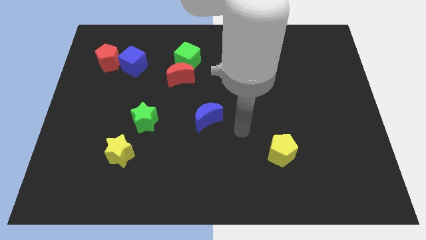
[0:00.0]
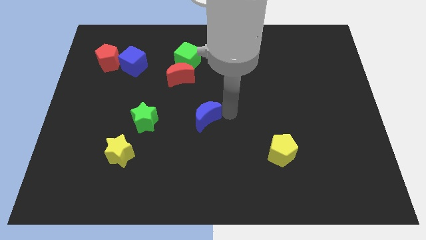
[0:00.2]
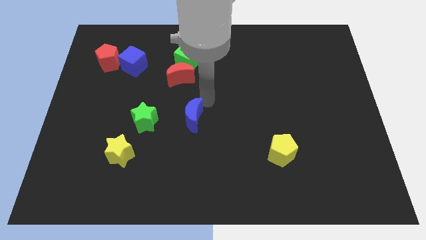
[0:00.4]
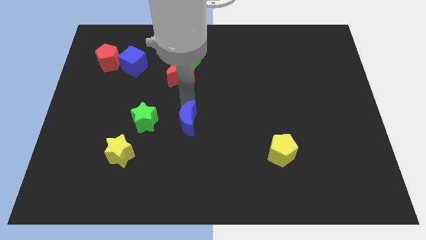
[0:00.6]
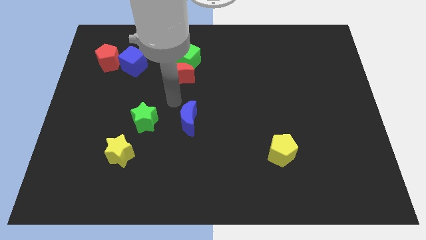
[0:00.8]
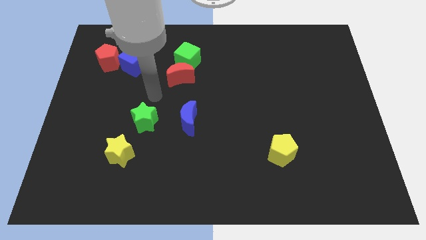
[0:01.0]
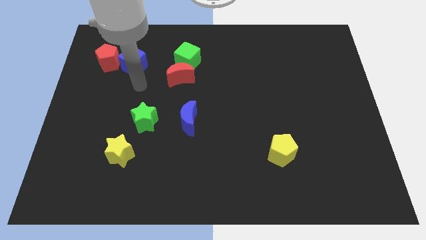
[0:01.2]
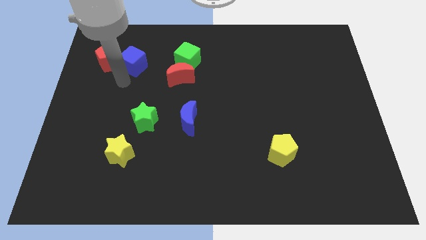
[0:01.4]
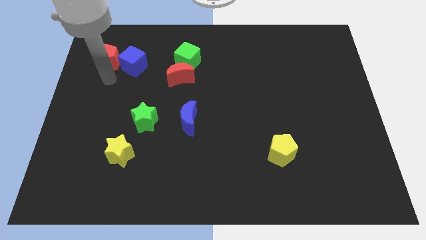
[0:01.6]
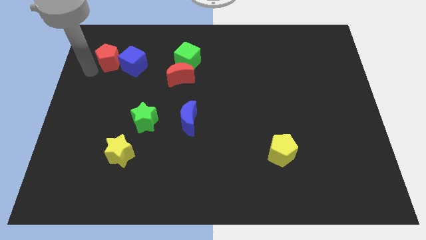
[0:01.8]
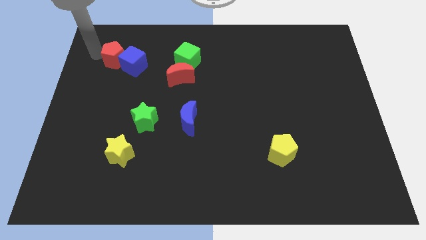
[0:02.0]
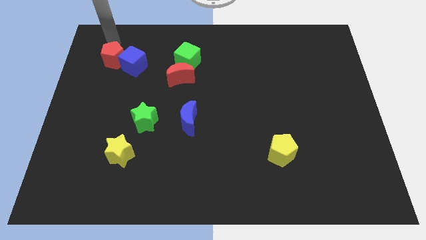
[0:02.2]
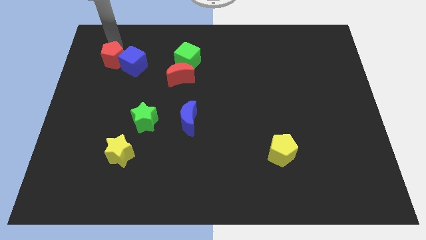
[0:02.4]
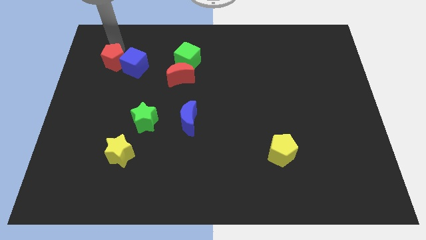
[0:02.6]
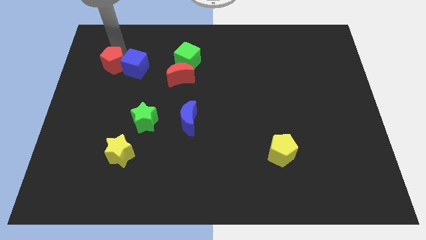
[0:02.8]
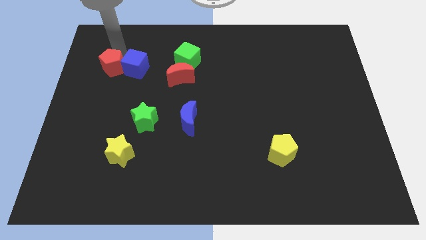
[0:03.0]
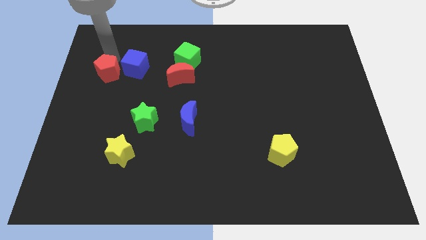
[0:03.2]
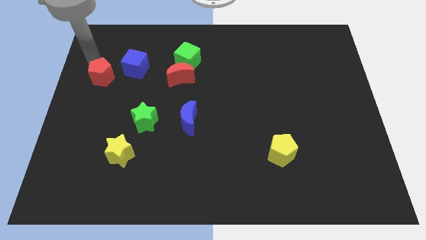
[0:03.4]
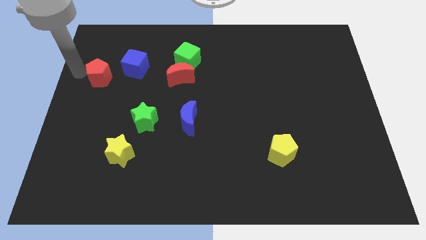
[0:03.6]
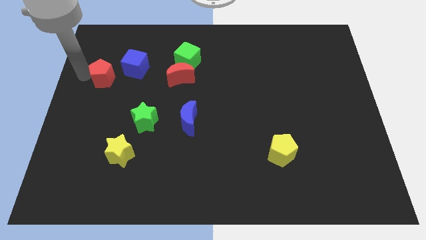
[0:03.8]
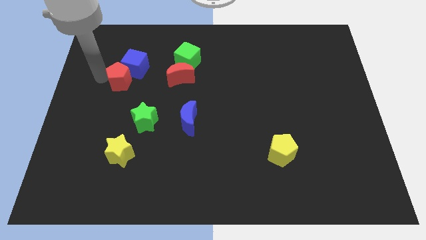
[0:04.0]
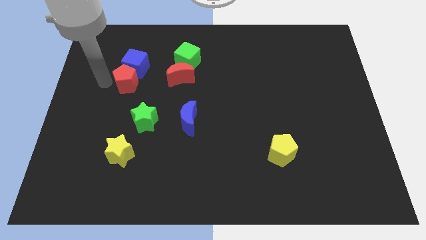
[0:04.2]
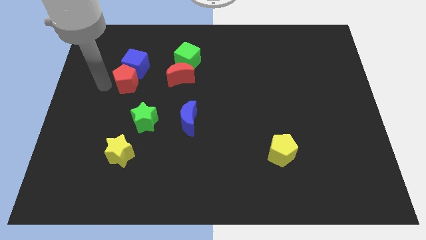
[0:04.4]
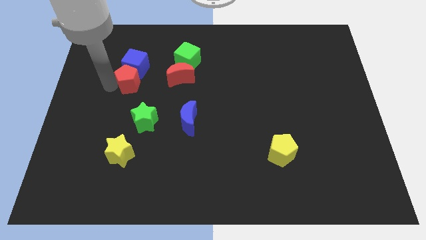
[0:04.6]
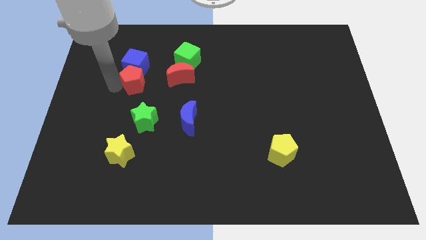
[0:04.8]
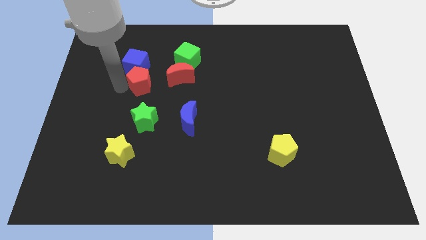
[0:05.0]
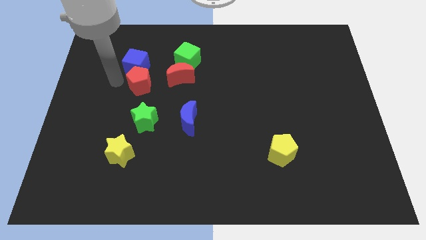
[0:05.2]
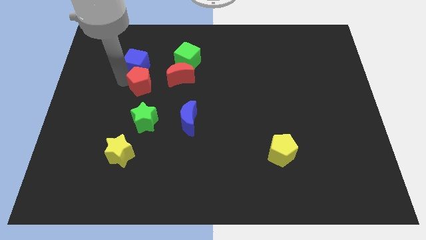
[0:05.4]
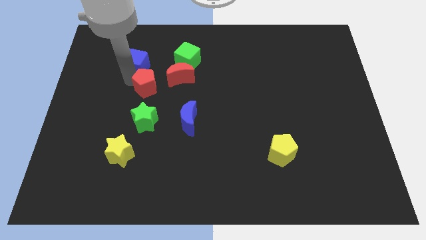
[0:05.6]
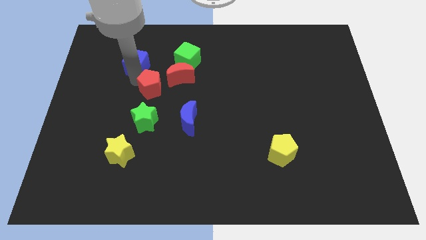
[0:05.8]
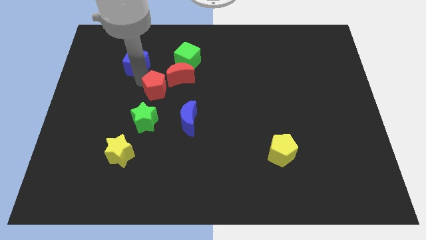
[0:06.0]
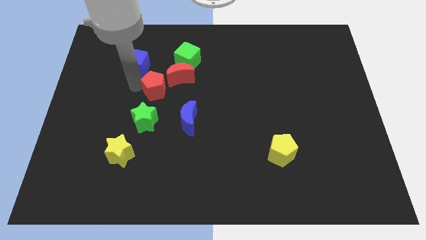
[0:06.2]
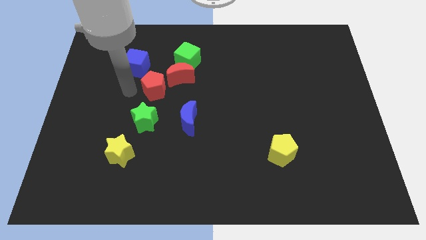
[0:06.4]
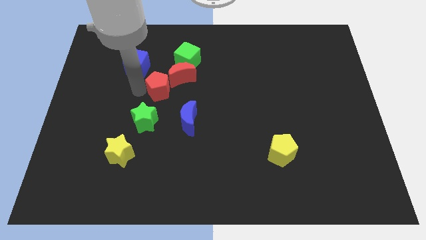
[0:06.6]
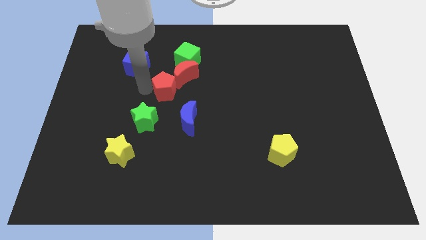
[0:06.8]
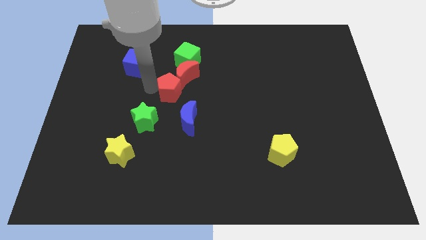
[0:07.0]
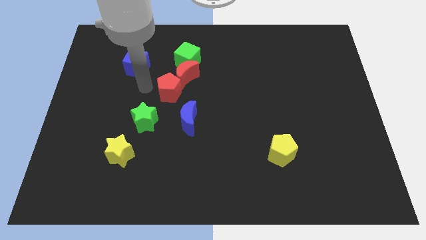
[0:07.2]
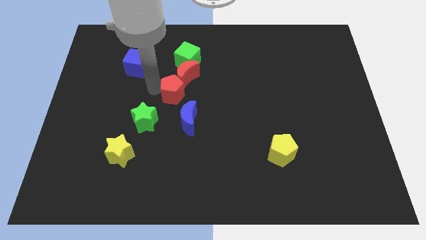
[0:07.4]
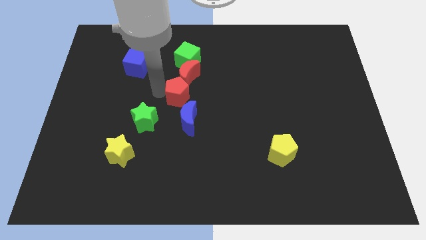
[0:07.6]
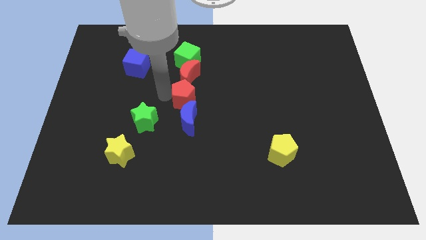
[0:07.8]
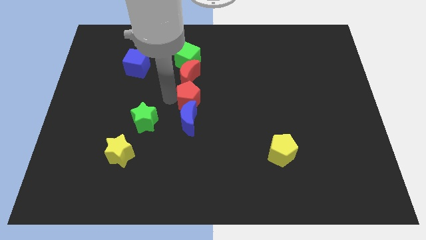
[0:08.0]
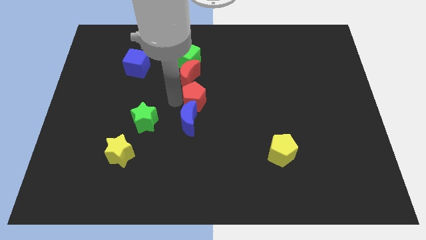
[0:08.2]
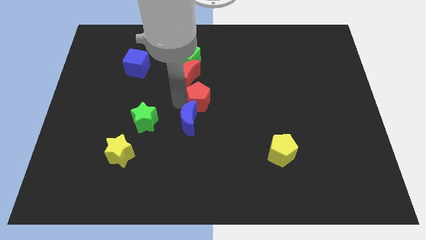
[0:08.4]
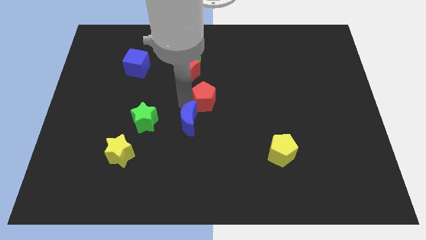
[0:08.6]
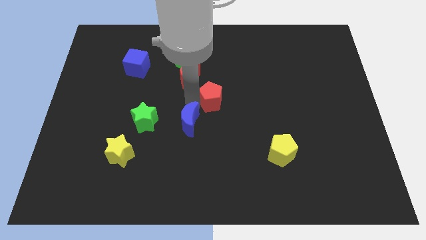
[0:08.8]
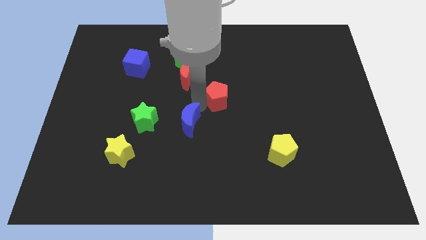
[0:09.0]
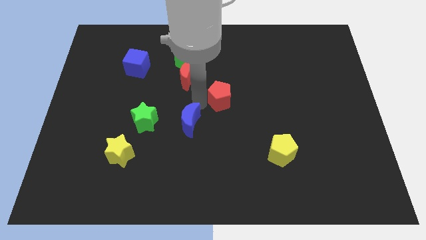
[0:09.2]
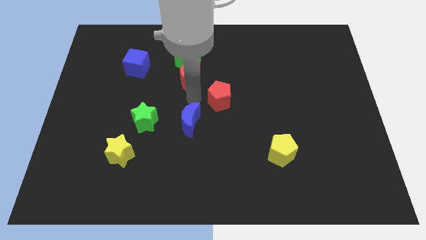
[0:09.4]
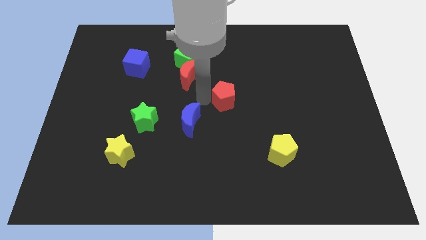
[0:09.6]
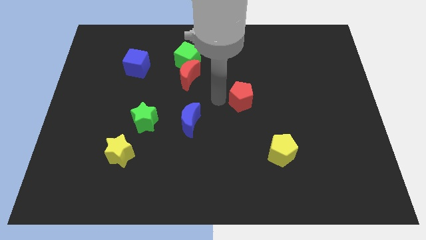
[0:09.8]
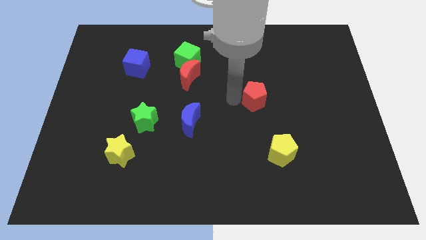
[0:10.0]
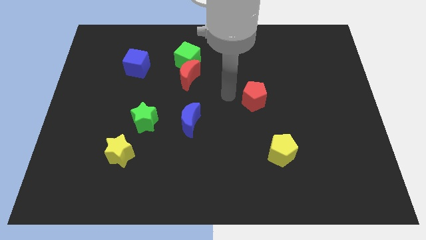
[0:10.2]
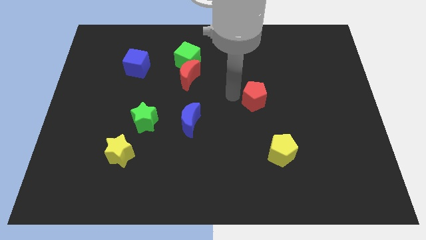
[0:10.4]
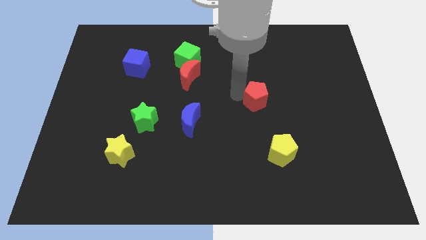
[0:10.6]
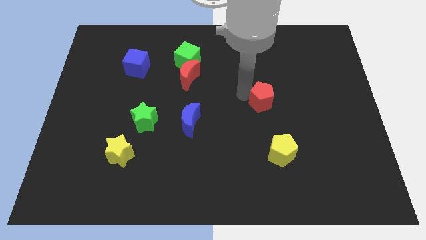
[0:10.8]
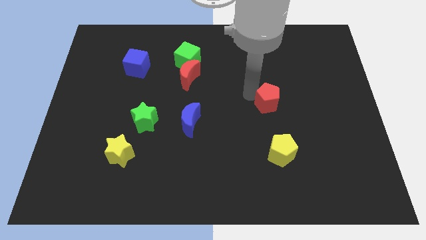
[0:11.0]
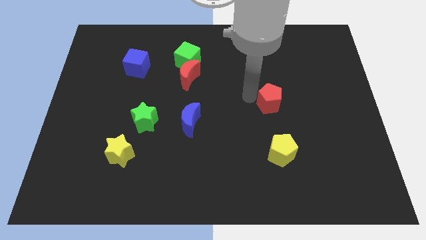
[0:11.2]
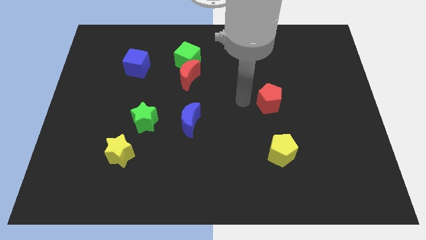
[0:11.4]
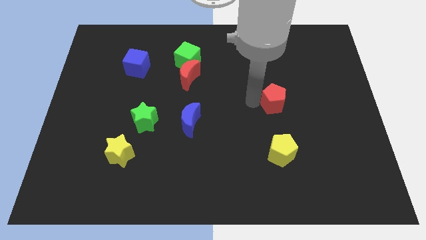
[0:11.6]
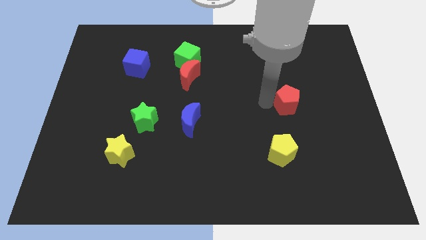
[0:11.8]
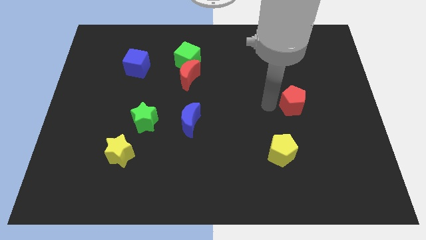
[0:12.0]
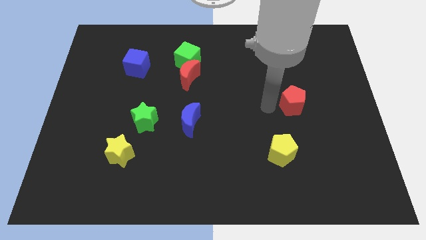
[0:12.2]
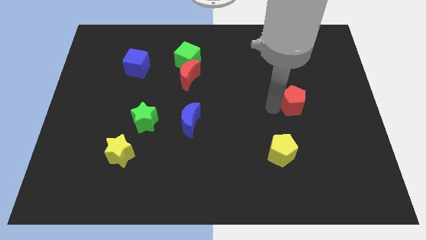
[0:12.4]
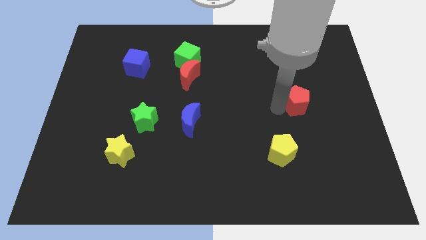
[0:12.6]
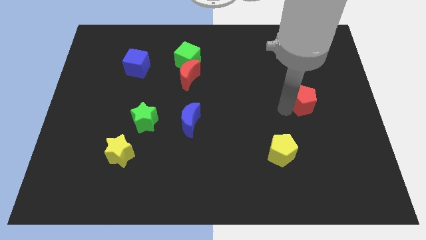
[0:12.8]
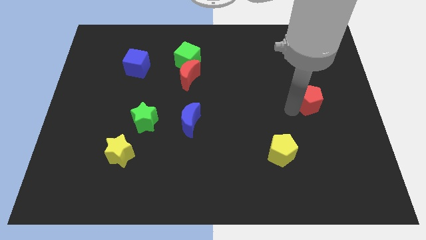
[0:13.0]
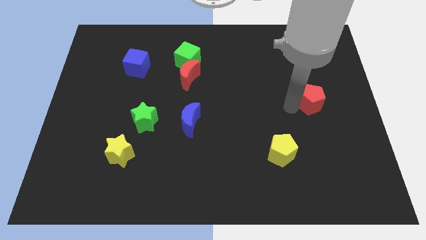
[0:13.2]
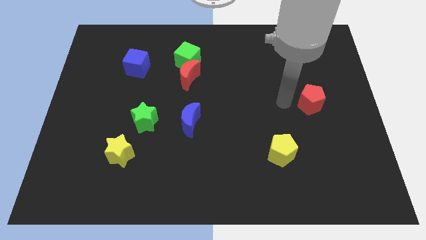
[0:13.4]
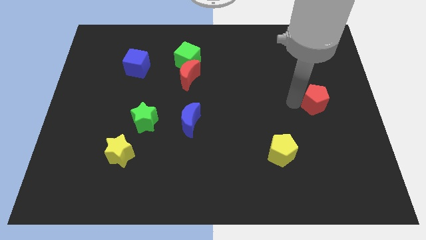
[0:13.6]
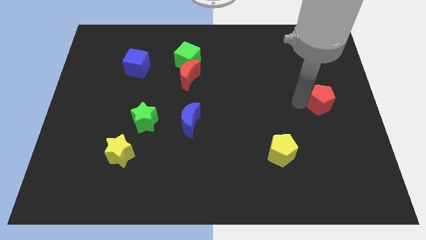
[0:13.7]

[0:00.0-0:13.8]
put the red pentagon to the right side
